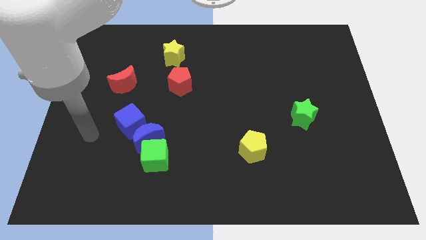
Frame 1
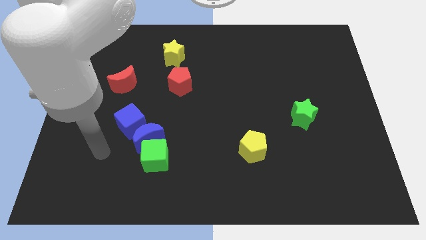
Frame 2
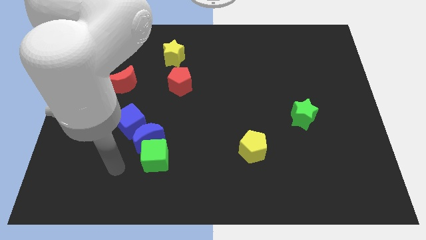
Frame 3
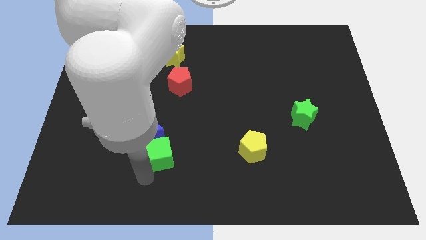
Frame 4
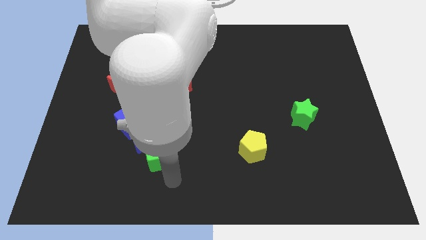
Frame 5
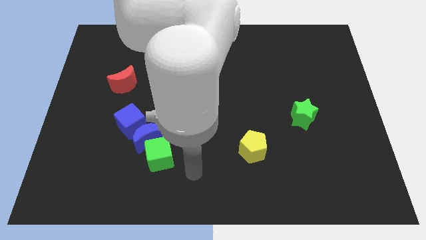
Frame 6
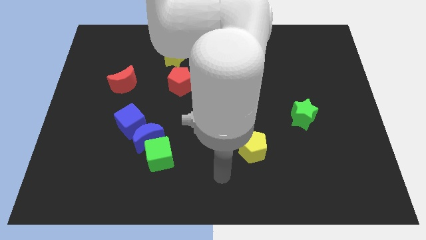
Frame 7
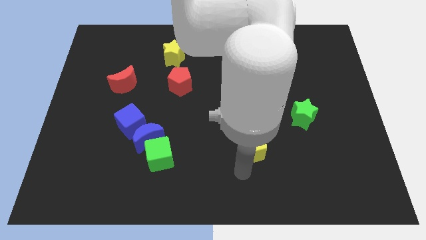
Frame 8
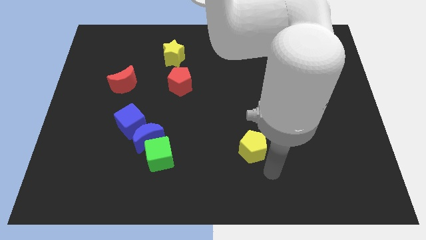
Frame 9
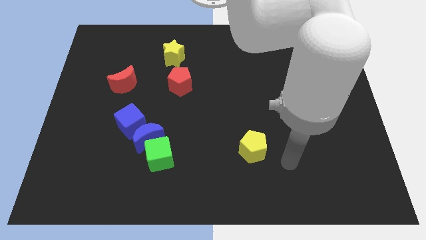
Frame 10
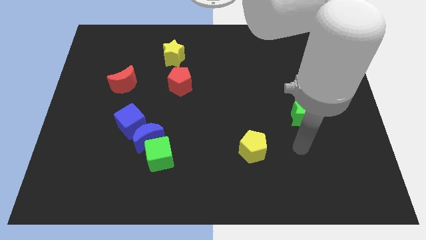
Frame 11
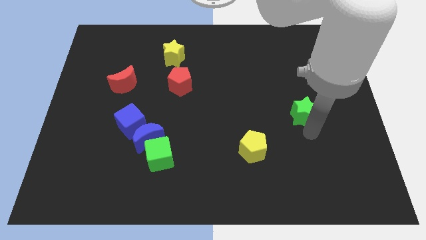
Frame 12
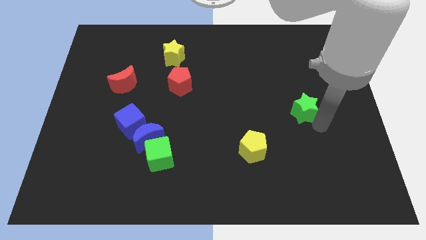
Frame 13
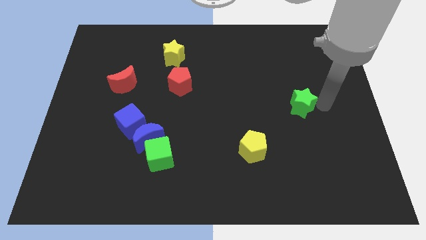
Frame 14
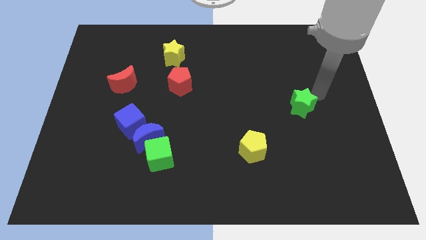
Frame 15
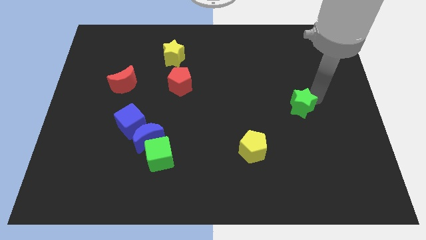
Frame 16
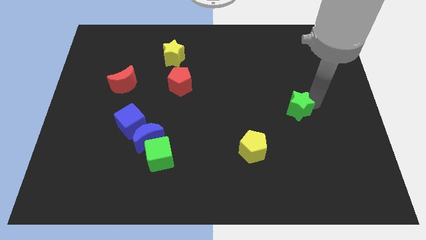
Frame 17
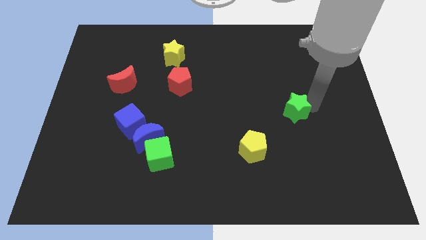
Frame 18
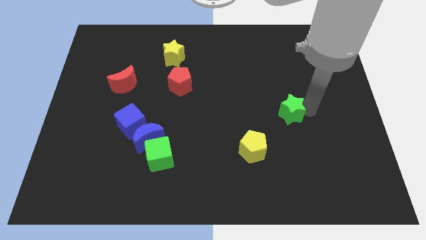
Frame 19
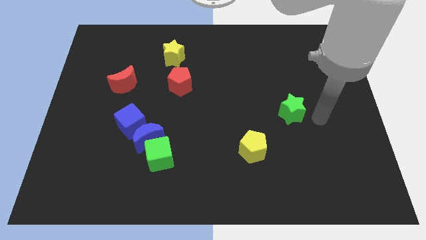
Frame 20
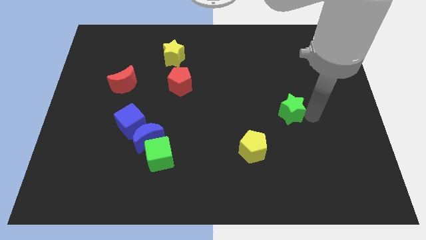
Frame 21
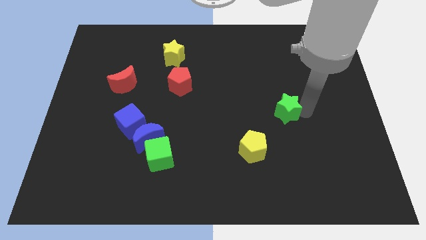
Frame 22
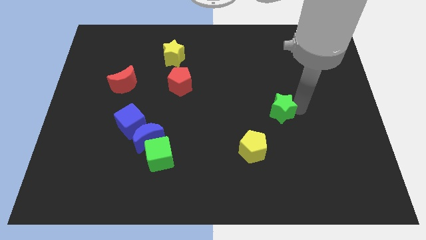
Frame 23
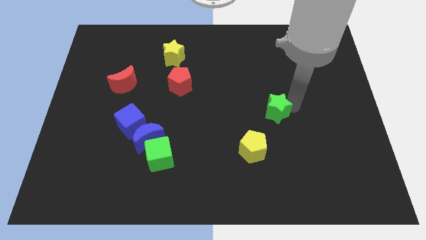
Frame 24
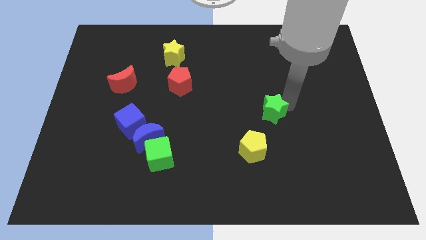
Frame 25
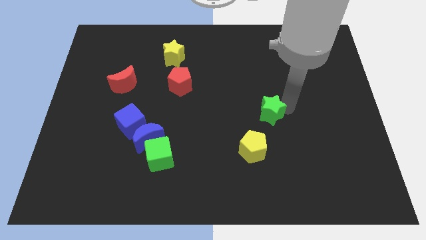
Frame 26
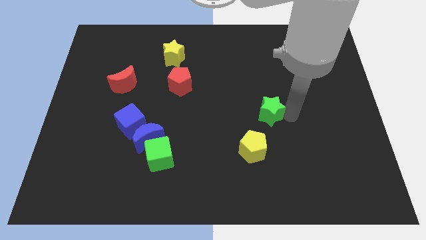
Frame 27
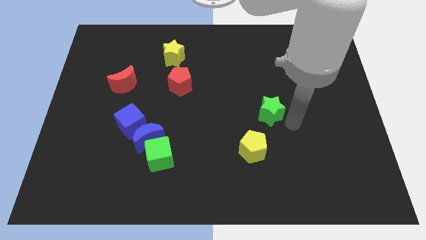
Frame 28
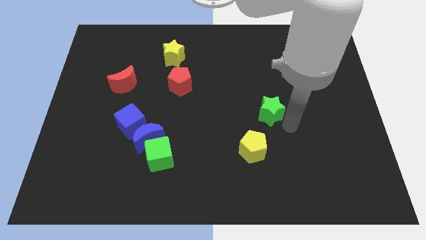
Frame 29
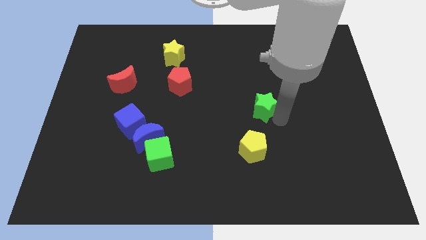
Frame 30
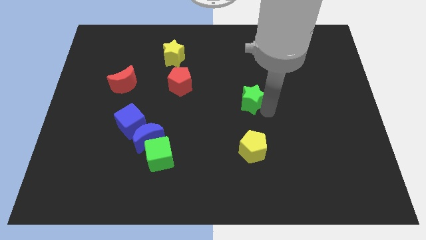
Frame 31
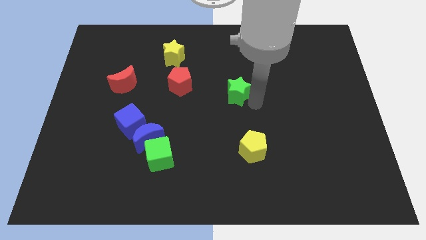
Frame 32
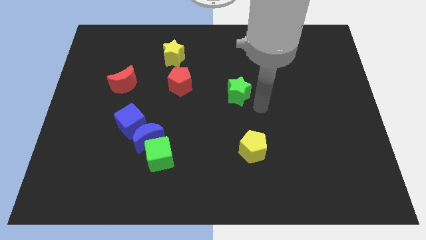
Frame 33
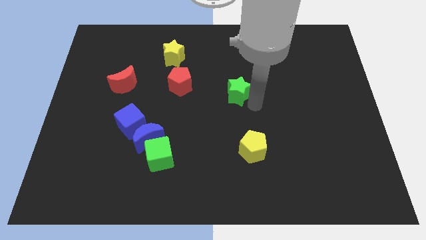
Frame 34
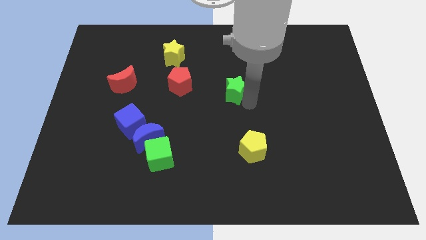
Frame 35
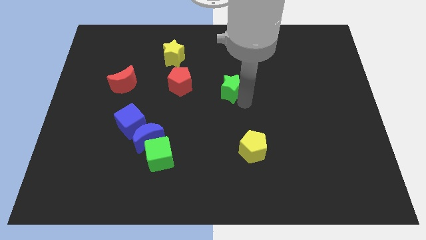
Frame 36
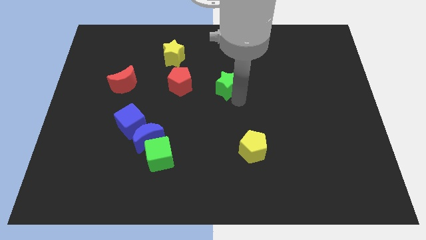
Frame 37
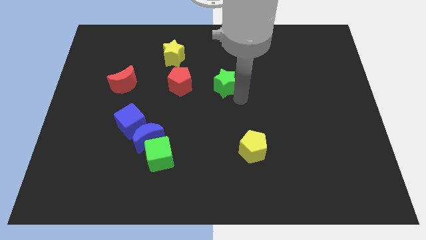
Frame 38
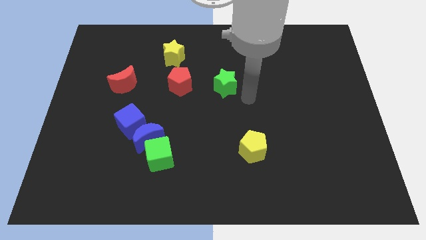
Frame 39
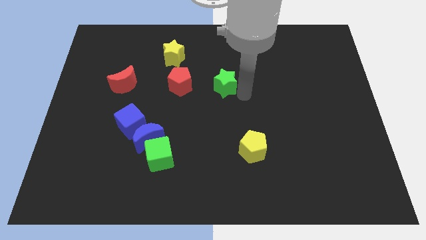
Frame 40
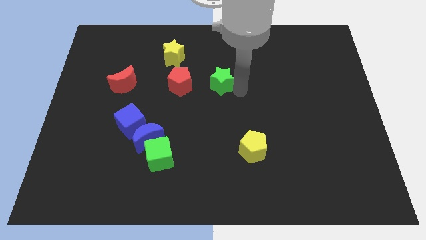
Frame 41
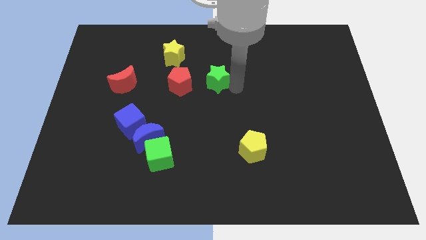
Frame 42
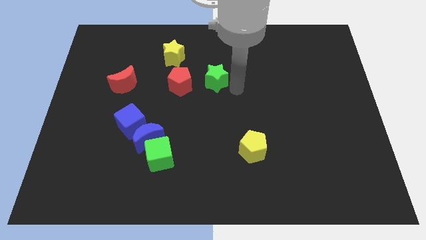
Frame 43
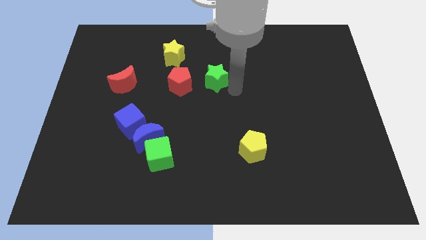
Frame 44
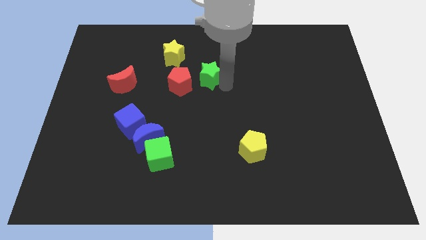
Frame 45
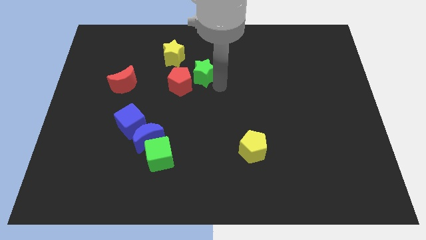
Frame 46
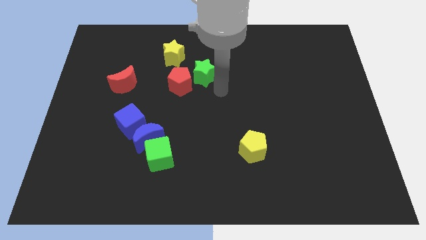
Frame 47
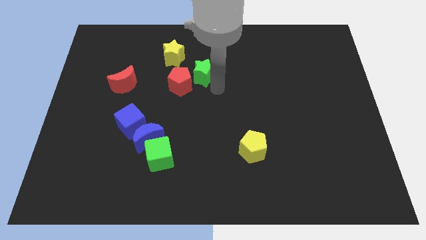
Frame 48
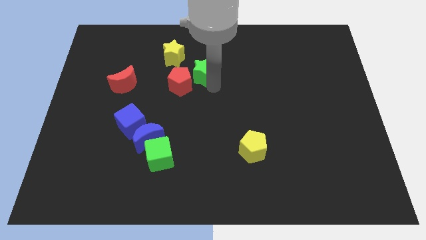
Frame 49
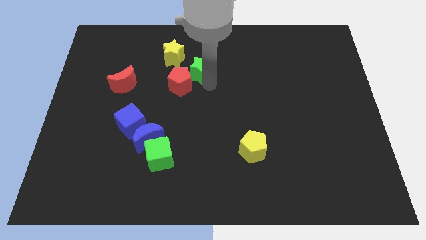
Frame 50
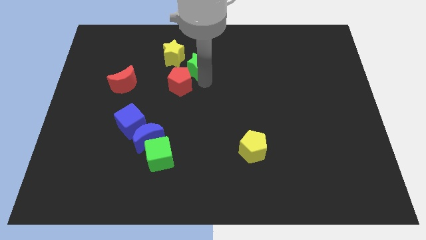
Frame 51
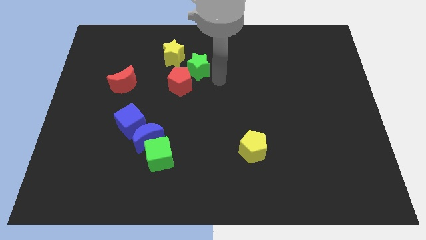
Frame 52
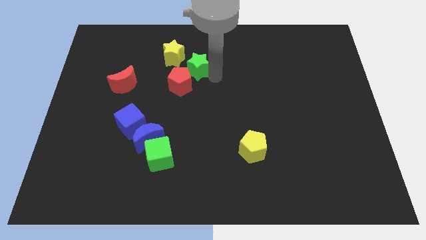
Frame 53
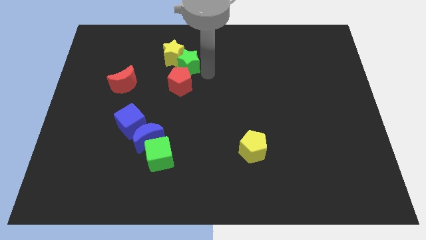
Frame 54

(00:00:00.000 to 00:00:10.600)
push the green star close to the yellow star

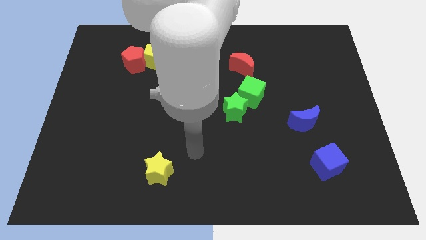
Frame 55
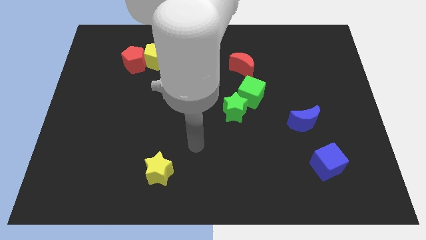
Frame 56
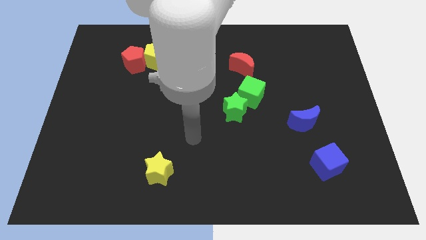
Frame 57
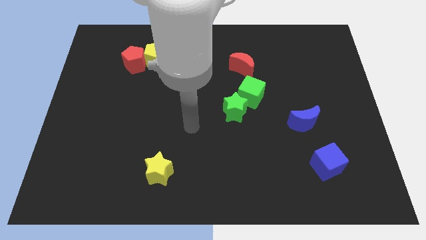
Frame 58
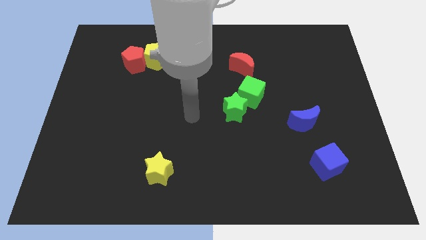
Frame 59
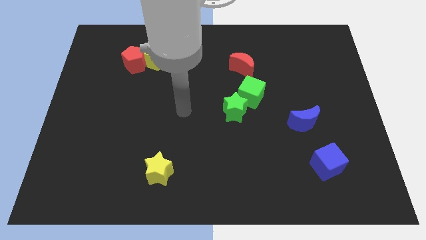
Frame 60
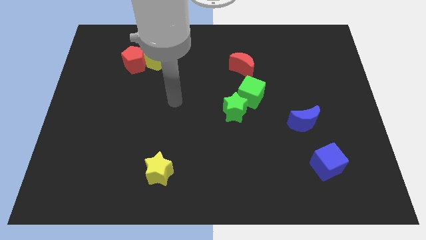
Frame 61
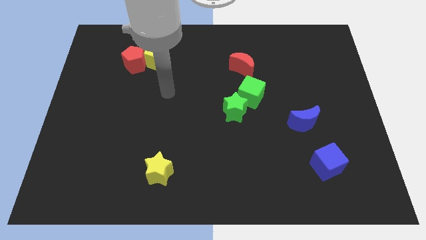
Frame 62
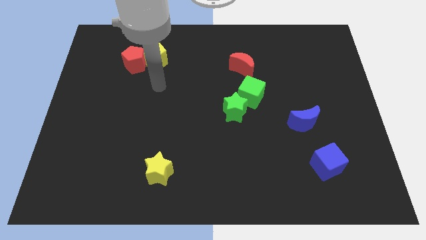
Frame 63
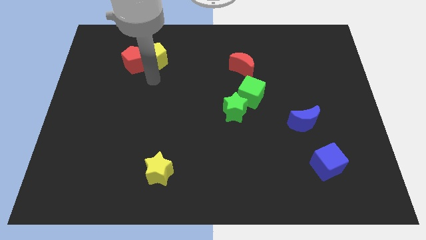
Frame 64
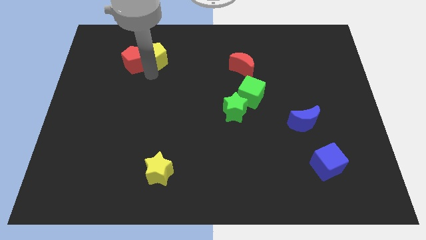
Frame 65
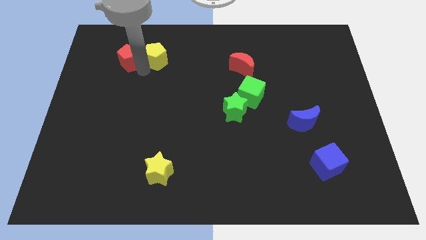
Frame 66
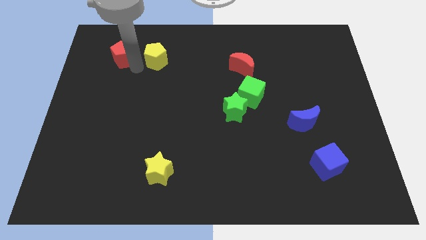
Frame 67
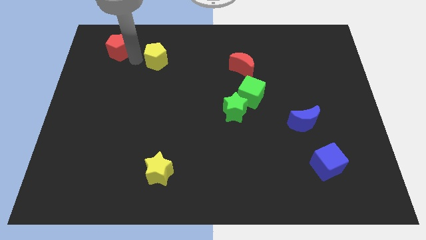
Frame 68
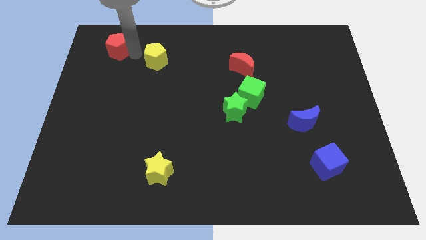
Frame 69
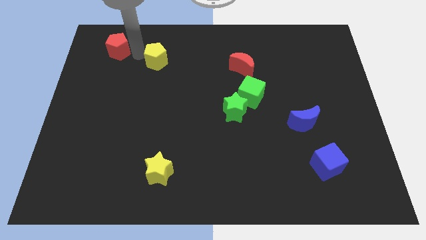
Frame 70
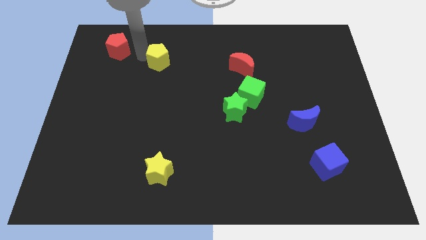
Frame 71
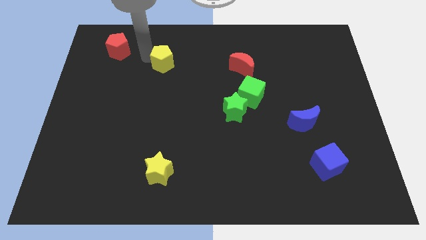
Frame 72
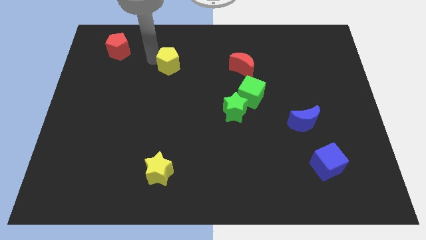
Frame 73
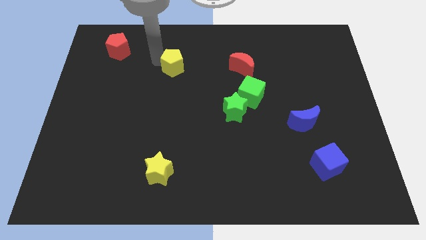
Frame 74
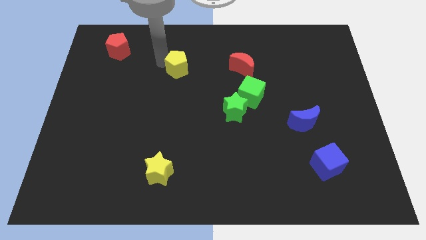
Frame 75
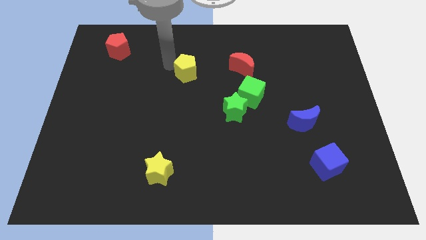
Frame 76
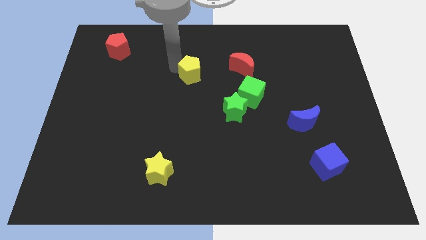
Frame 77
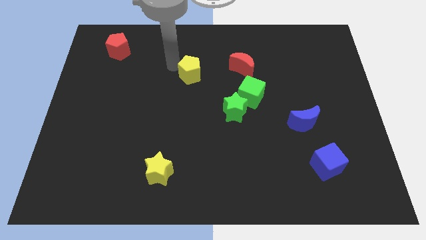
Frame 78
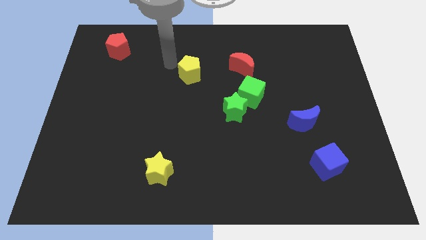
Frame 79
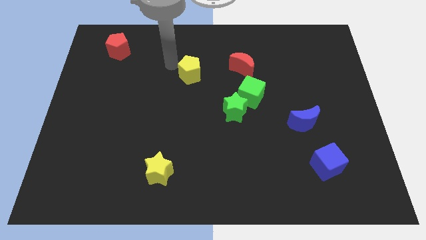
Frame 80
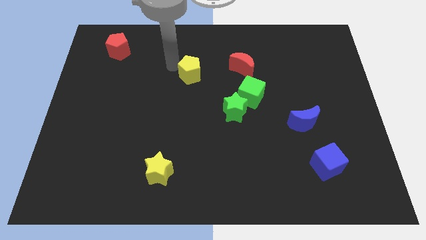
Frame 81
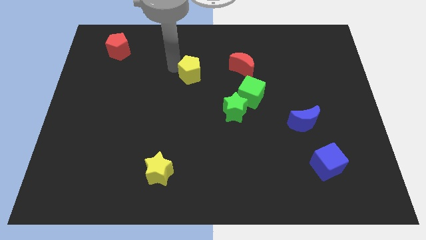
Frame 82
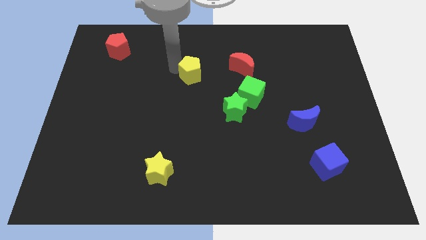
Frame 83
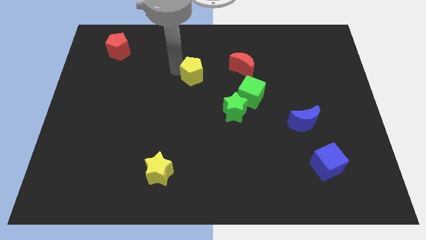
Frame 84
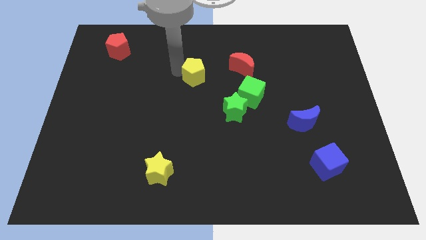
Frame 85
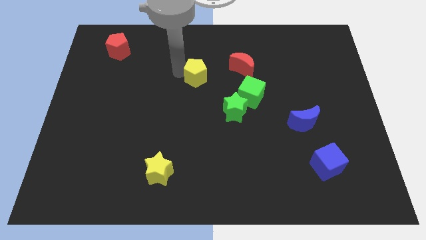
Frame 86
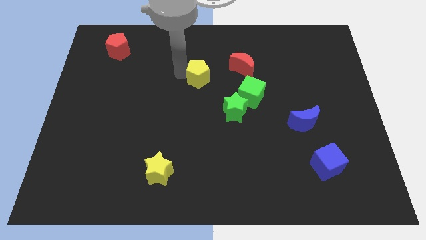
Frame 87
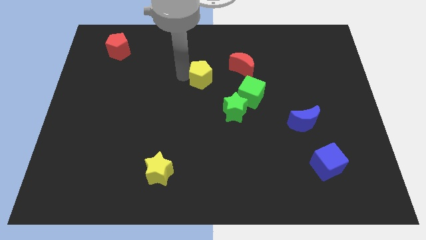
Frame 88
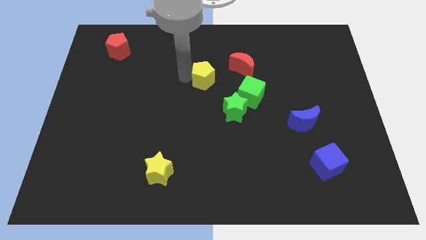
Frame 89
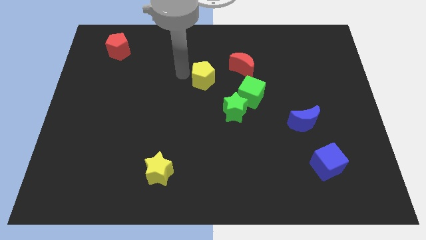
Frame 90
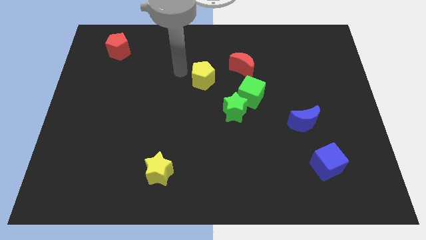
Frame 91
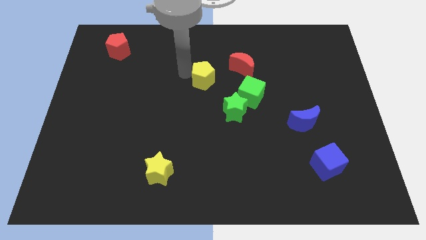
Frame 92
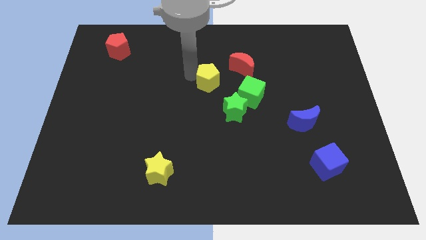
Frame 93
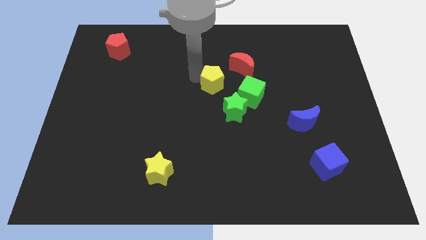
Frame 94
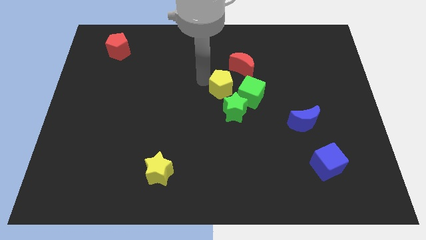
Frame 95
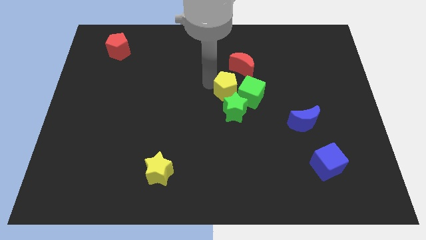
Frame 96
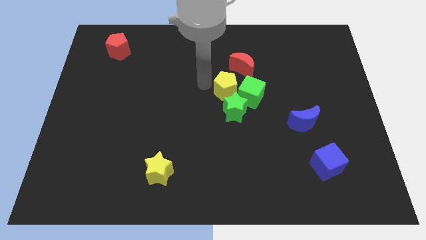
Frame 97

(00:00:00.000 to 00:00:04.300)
push the yellow pentagon next to the green cube
